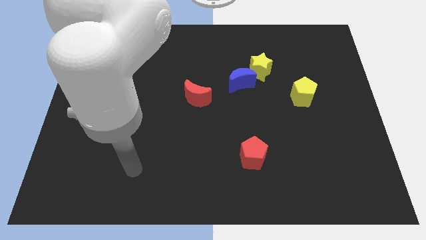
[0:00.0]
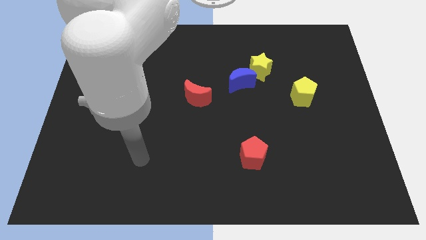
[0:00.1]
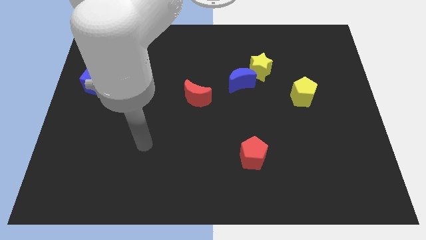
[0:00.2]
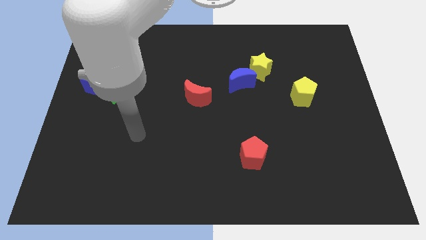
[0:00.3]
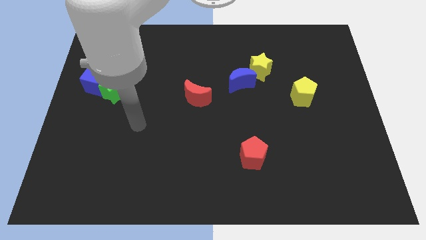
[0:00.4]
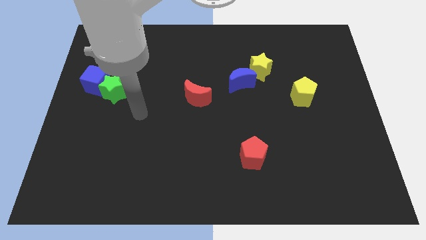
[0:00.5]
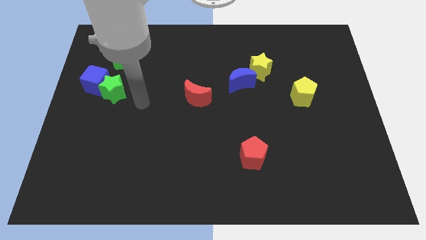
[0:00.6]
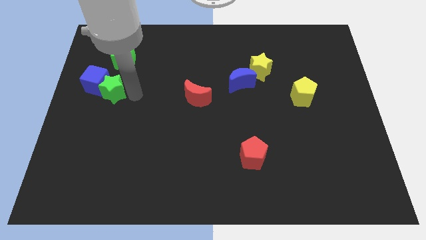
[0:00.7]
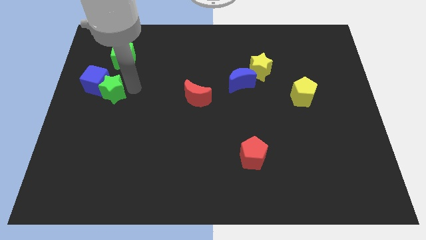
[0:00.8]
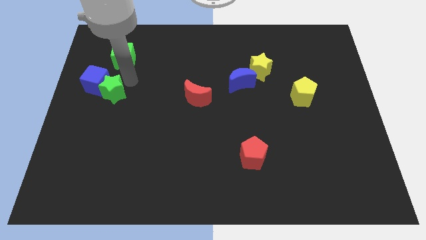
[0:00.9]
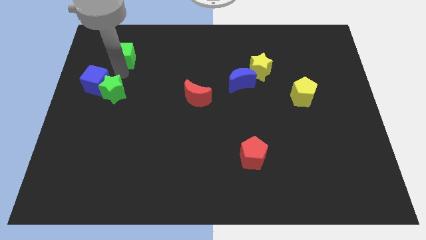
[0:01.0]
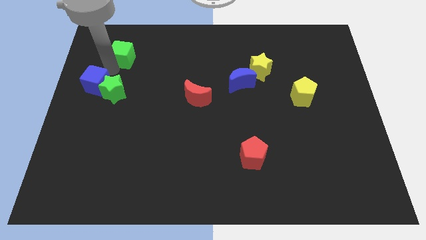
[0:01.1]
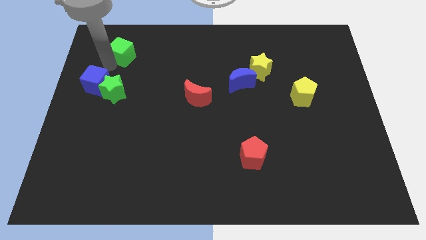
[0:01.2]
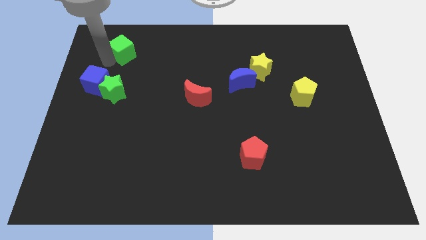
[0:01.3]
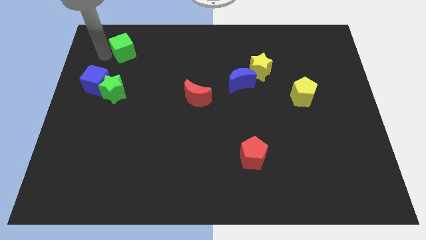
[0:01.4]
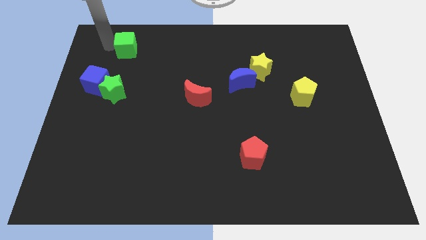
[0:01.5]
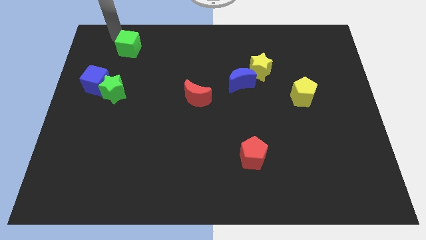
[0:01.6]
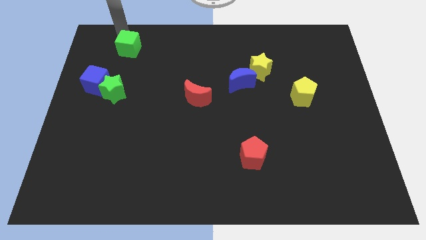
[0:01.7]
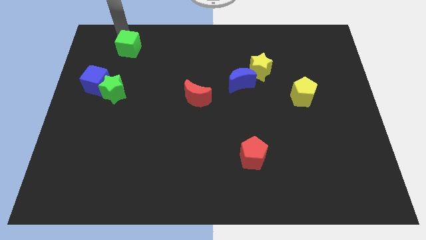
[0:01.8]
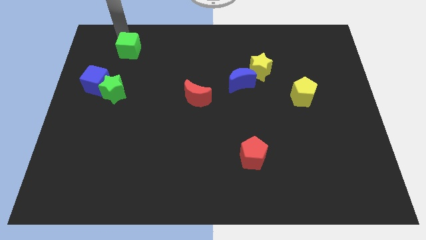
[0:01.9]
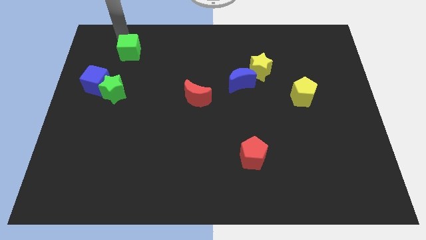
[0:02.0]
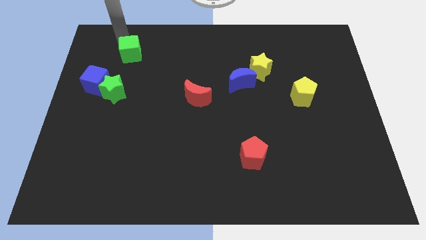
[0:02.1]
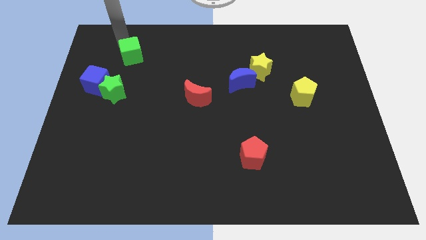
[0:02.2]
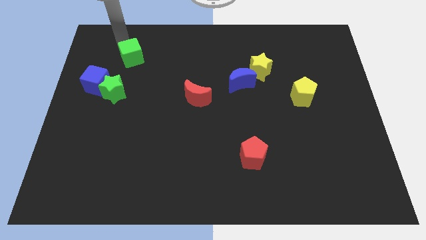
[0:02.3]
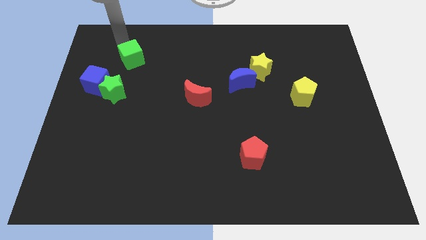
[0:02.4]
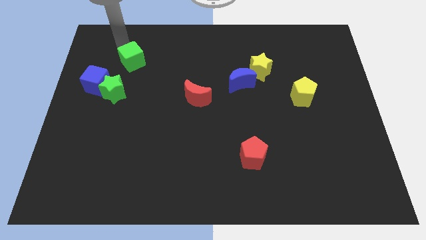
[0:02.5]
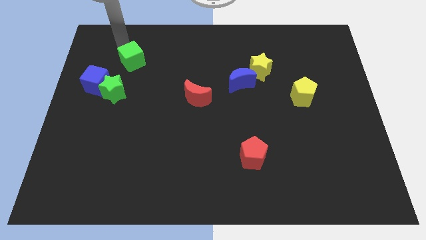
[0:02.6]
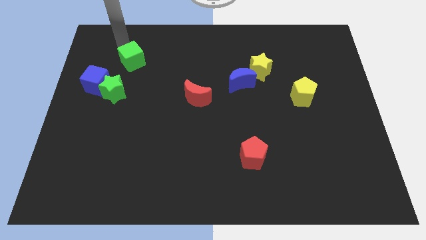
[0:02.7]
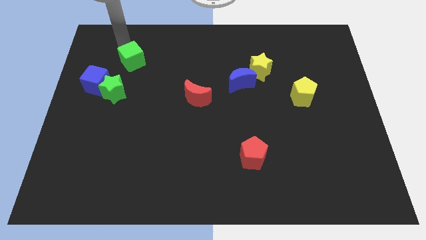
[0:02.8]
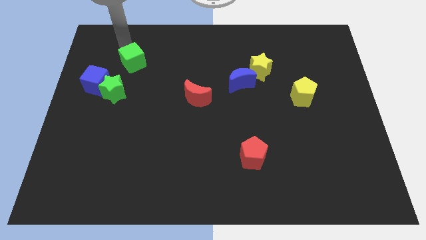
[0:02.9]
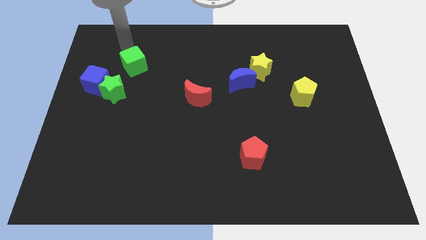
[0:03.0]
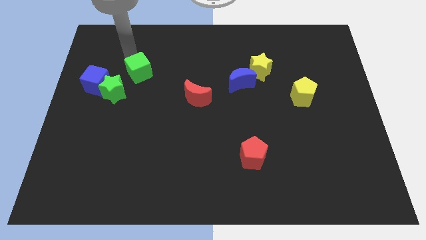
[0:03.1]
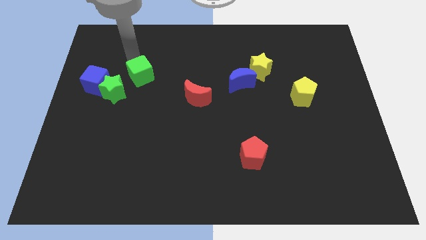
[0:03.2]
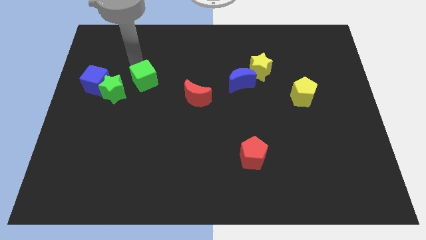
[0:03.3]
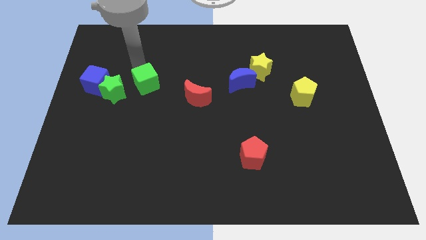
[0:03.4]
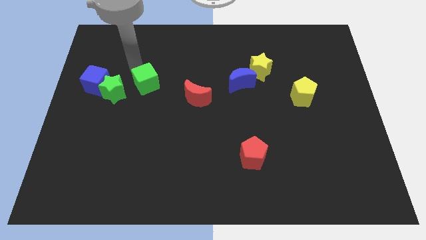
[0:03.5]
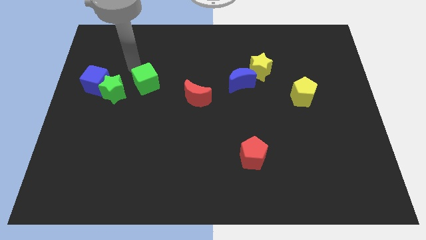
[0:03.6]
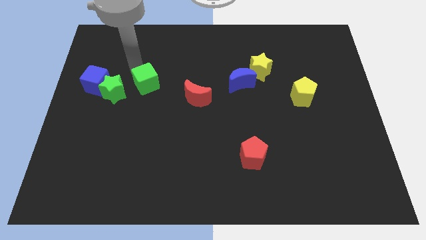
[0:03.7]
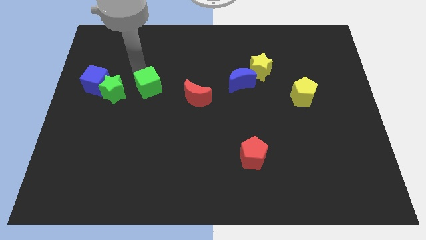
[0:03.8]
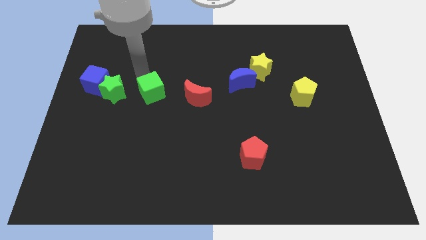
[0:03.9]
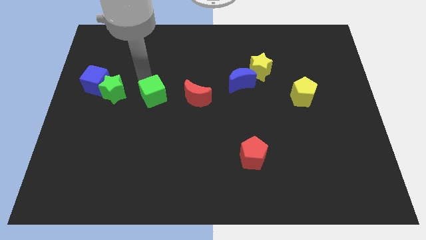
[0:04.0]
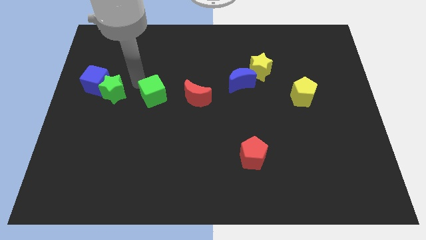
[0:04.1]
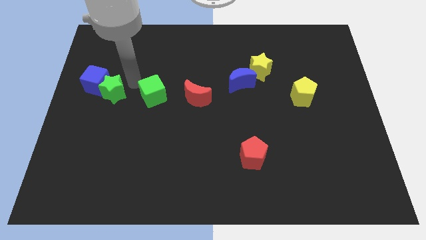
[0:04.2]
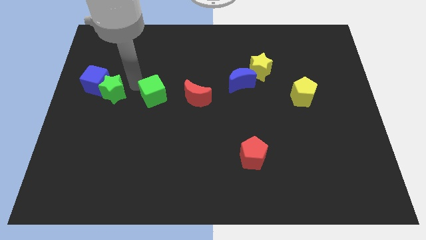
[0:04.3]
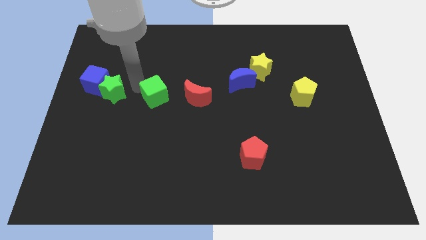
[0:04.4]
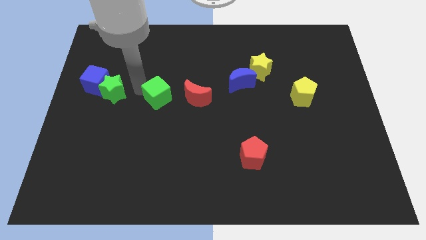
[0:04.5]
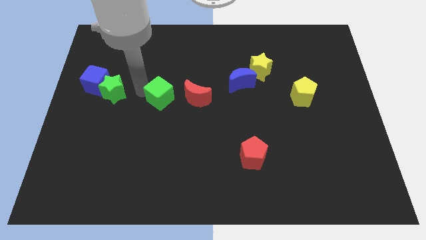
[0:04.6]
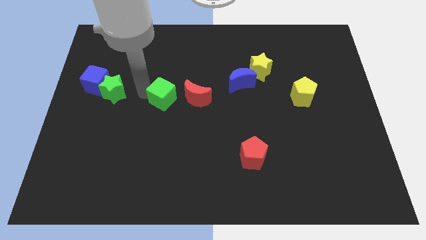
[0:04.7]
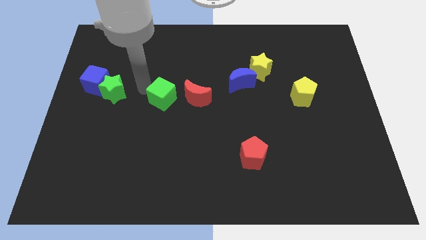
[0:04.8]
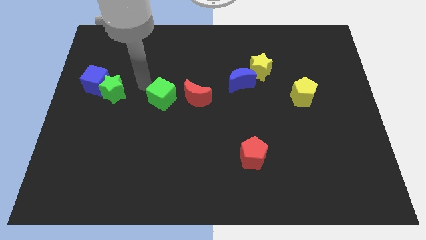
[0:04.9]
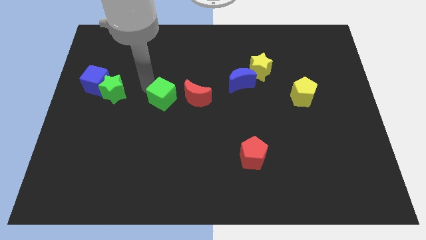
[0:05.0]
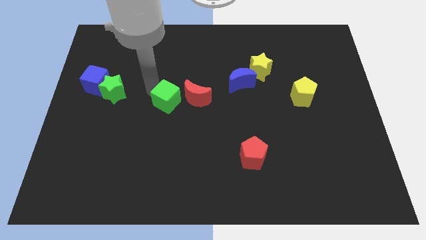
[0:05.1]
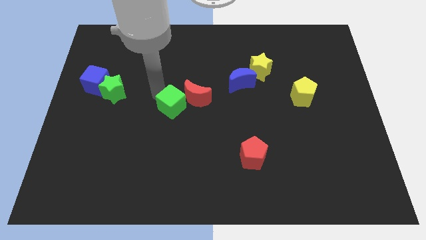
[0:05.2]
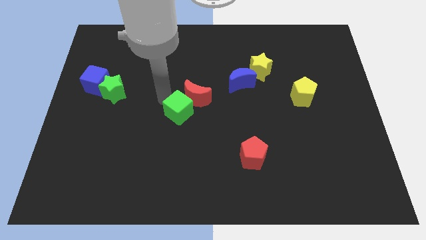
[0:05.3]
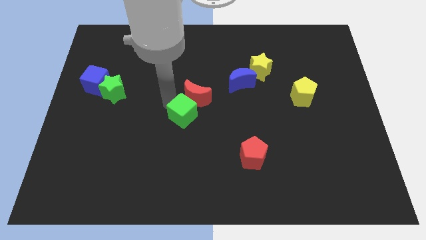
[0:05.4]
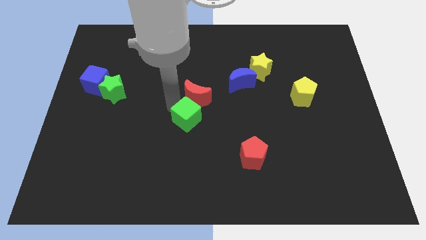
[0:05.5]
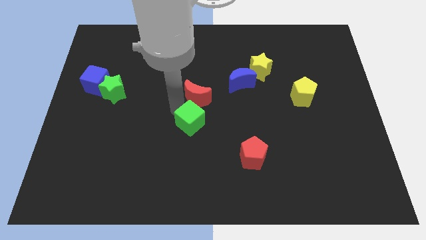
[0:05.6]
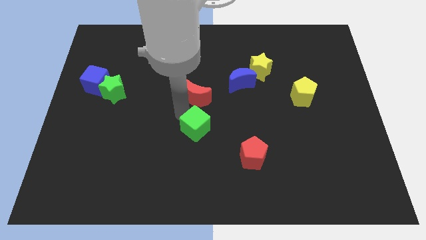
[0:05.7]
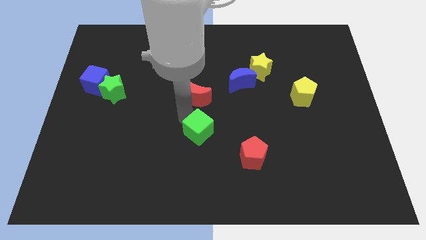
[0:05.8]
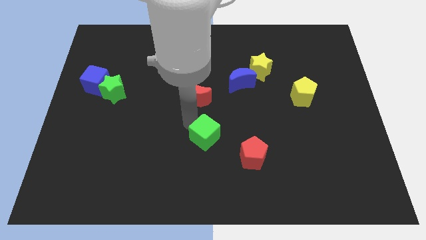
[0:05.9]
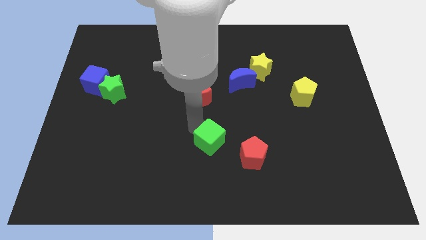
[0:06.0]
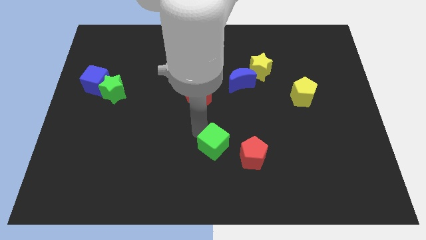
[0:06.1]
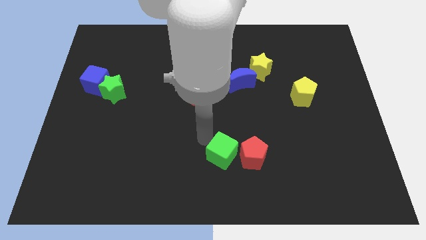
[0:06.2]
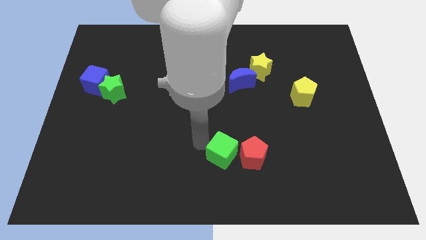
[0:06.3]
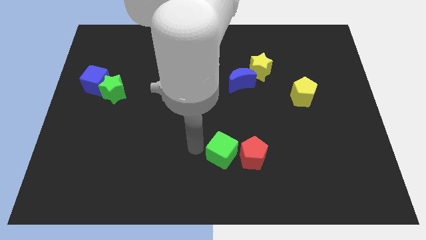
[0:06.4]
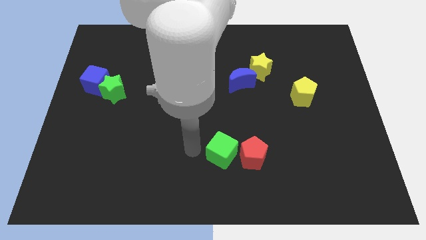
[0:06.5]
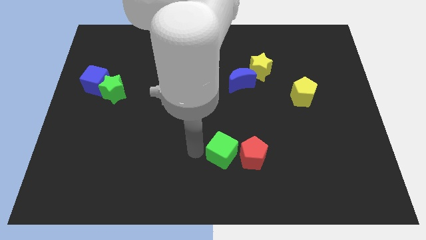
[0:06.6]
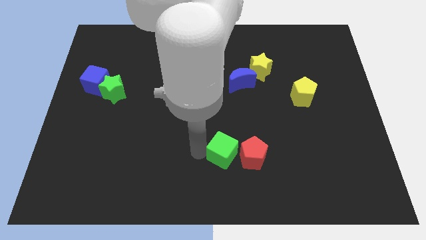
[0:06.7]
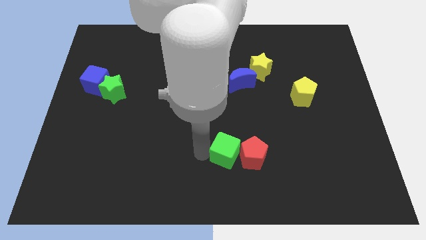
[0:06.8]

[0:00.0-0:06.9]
push the green cube next to the red pentagon
